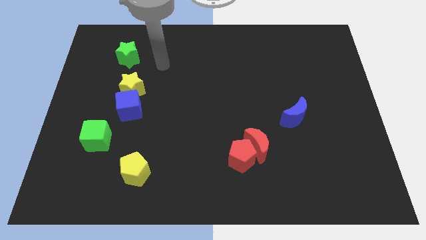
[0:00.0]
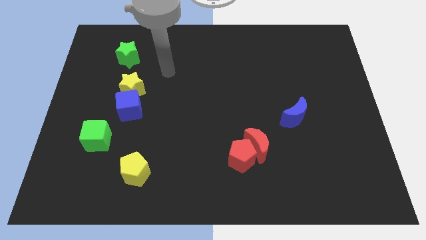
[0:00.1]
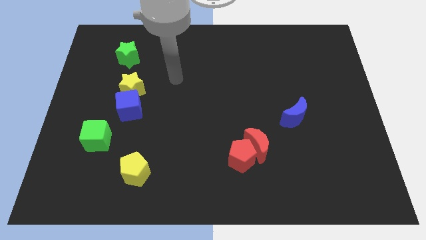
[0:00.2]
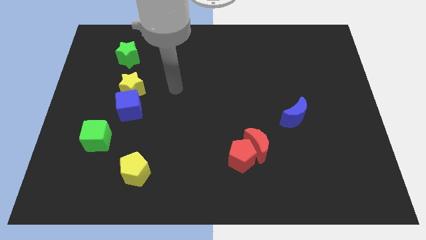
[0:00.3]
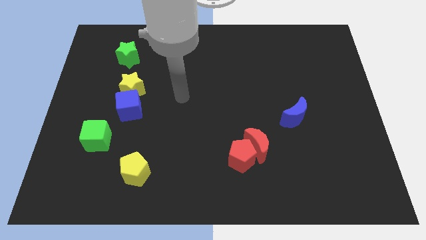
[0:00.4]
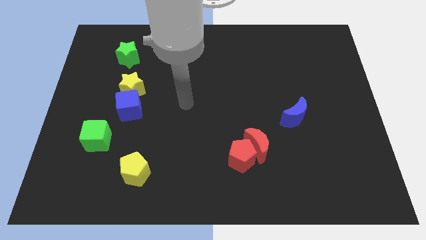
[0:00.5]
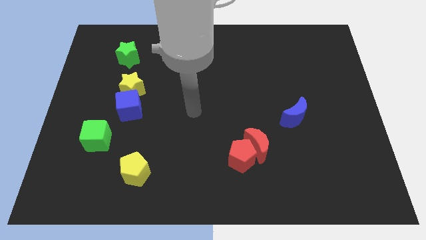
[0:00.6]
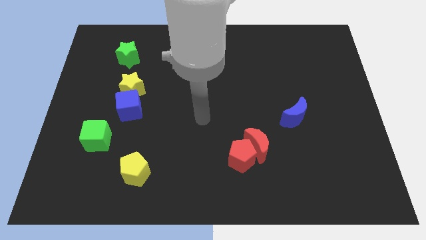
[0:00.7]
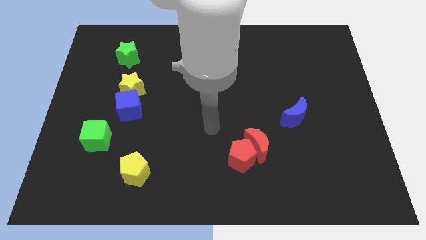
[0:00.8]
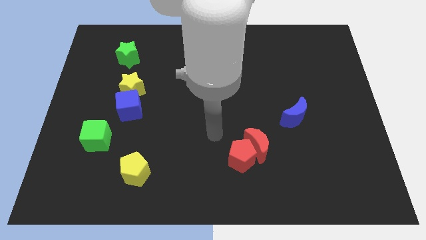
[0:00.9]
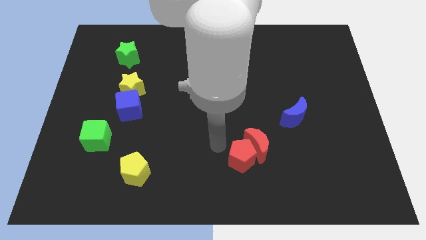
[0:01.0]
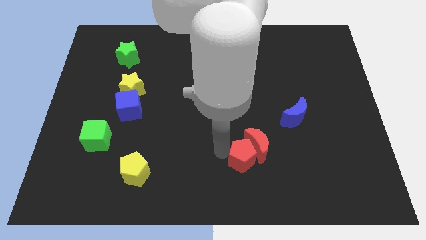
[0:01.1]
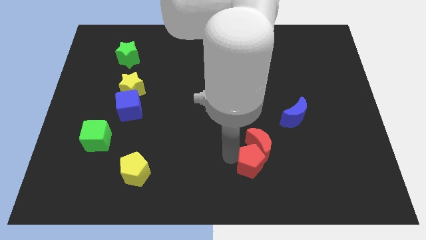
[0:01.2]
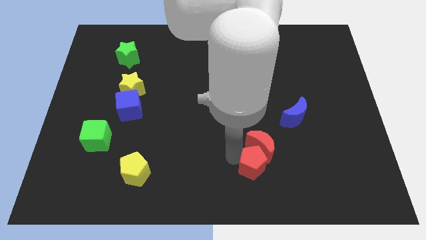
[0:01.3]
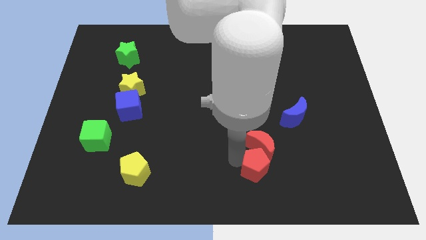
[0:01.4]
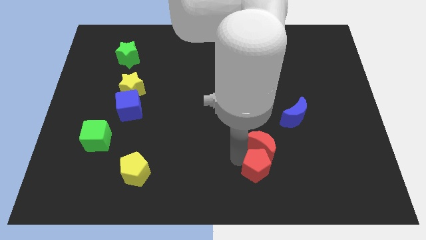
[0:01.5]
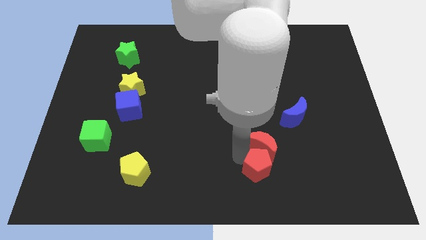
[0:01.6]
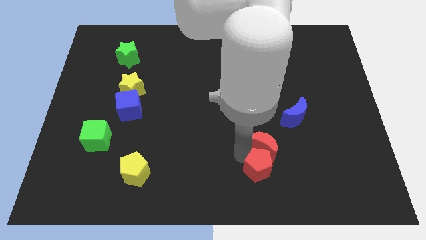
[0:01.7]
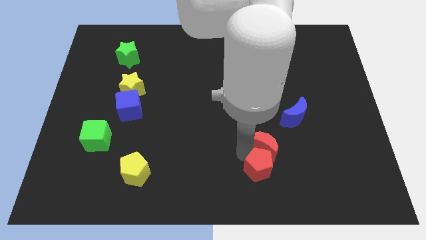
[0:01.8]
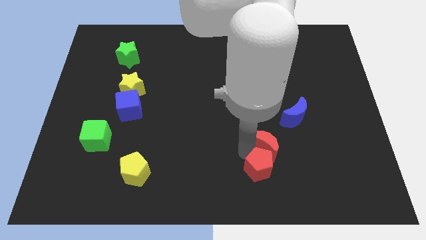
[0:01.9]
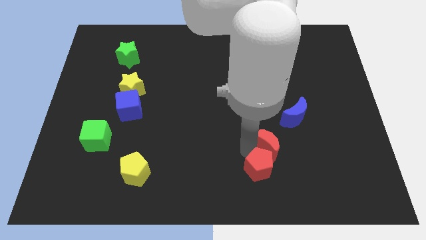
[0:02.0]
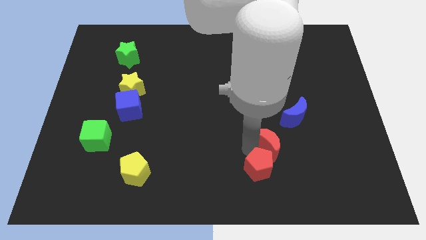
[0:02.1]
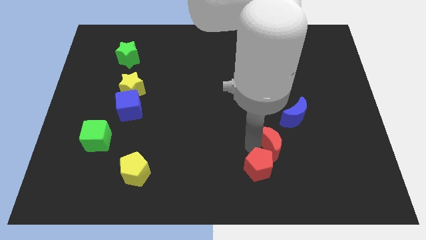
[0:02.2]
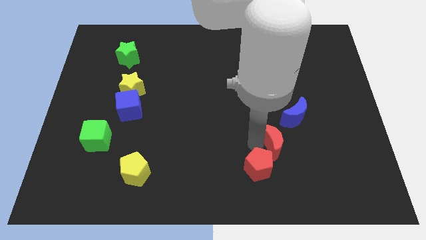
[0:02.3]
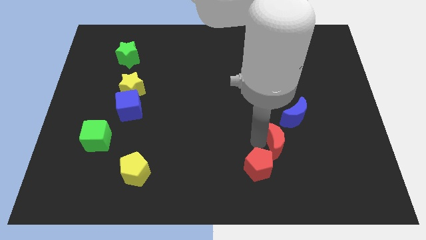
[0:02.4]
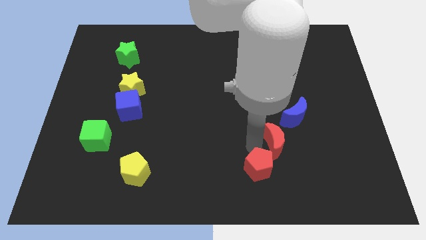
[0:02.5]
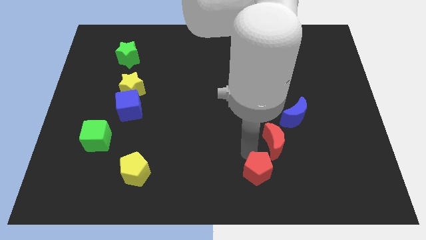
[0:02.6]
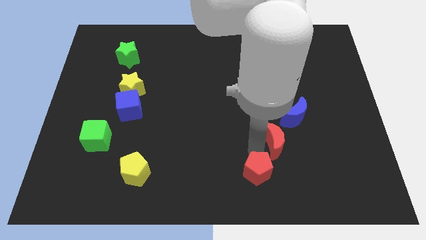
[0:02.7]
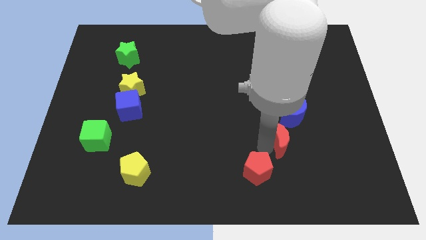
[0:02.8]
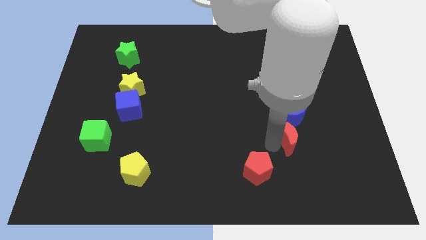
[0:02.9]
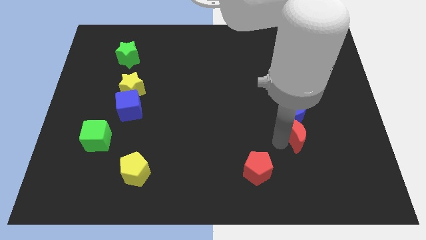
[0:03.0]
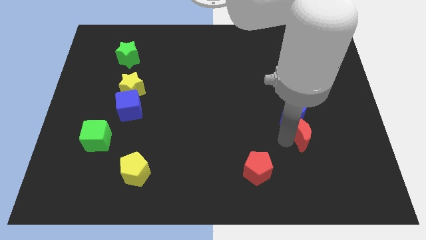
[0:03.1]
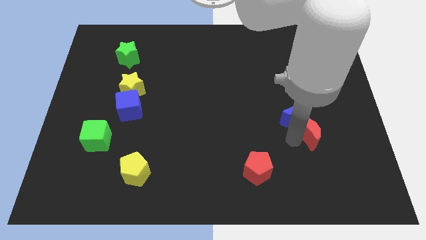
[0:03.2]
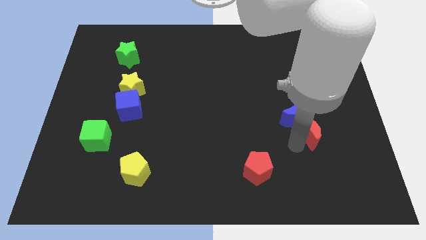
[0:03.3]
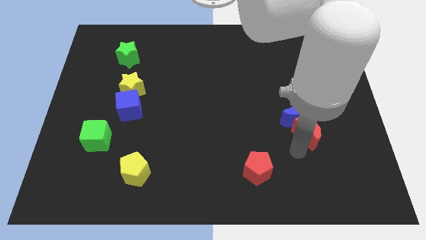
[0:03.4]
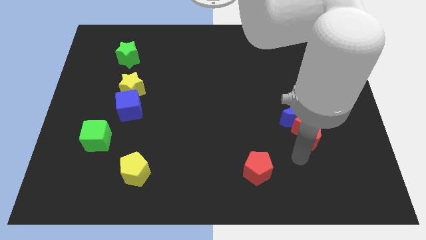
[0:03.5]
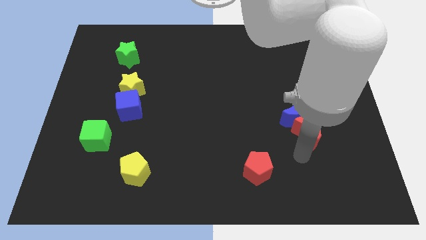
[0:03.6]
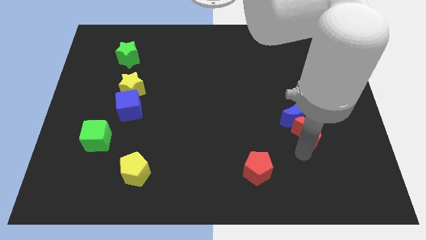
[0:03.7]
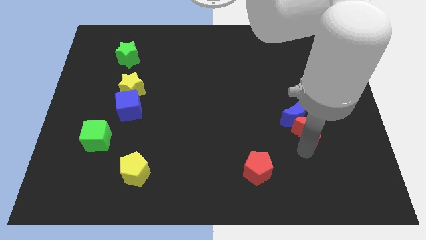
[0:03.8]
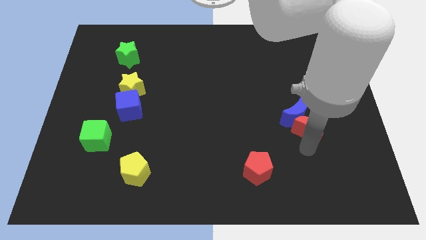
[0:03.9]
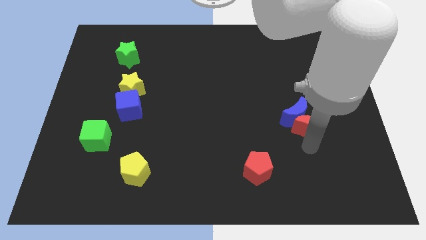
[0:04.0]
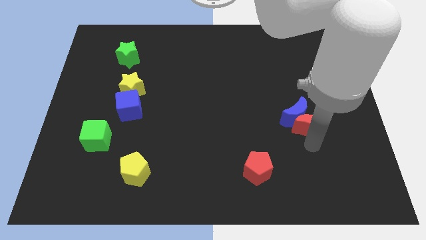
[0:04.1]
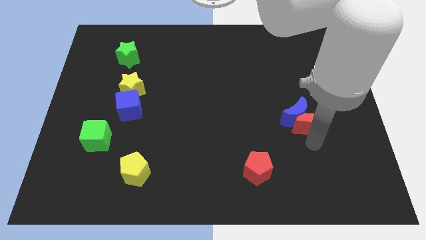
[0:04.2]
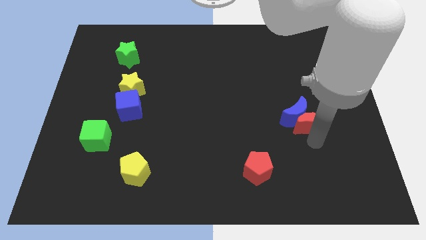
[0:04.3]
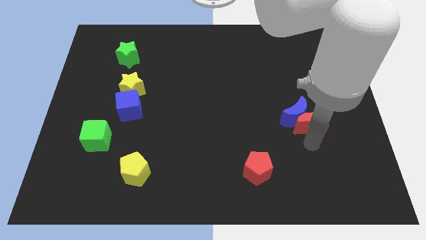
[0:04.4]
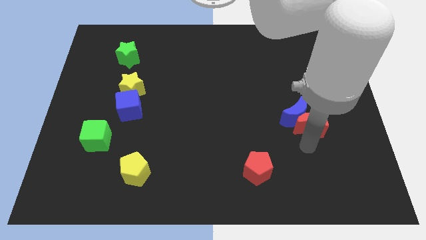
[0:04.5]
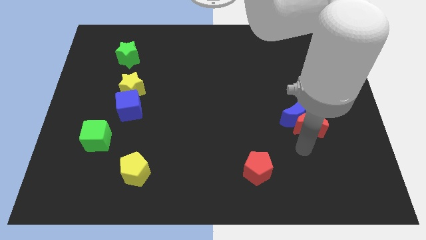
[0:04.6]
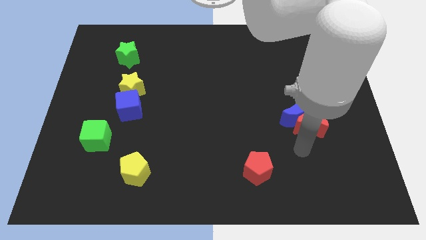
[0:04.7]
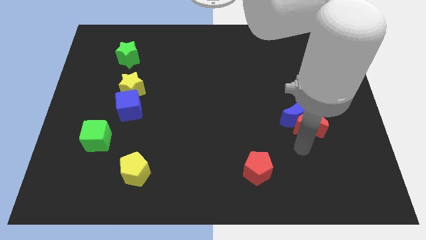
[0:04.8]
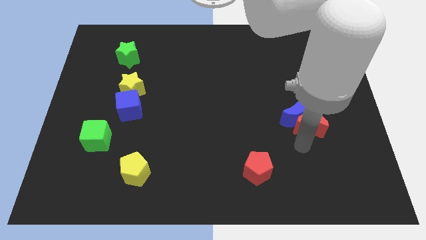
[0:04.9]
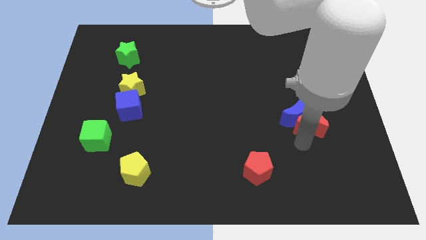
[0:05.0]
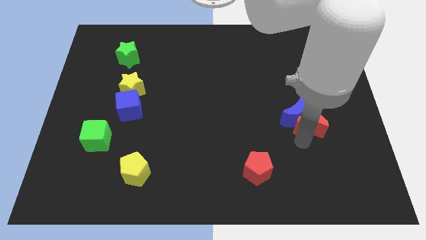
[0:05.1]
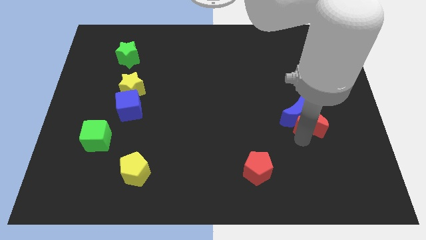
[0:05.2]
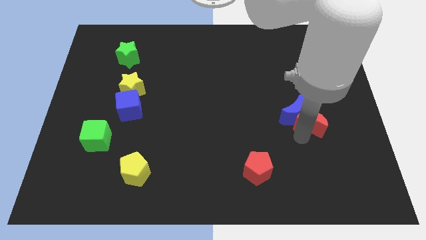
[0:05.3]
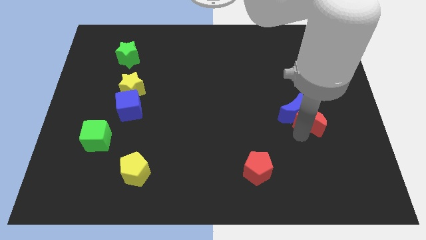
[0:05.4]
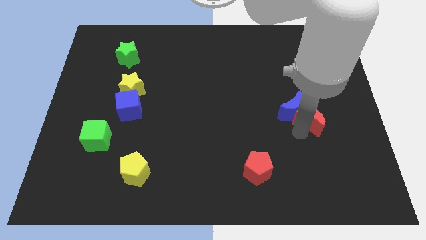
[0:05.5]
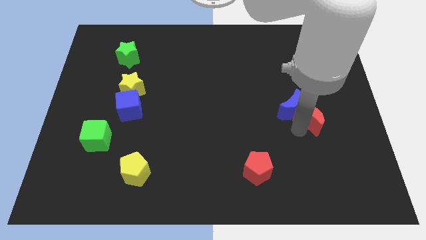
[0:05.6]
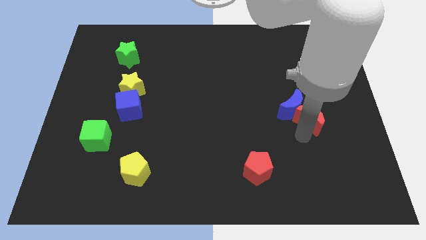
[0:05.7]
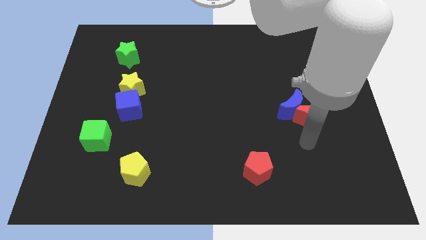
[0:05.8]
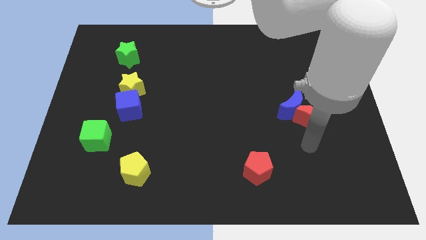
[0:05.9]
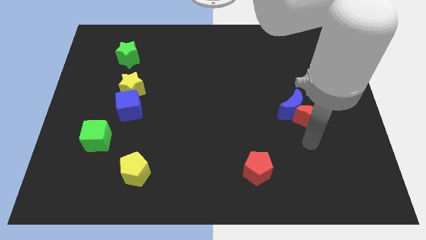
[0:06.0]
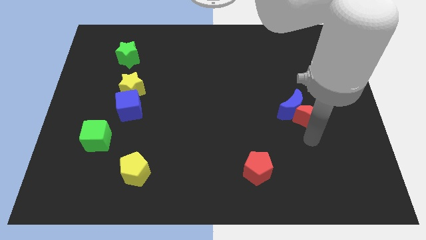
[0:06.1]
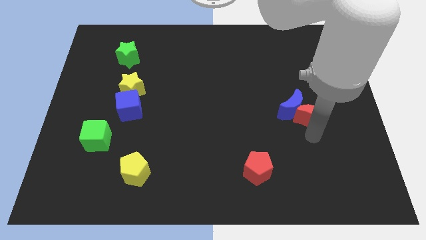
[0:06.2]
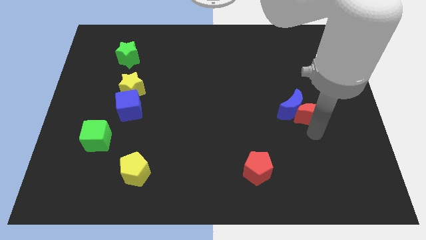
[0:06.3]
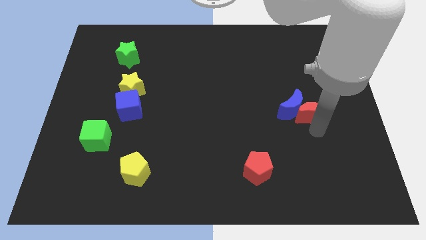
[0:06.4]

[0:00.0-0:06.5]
put the red moon diagonally up and to the right of the blue moon

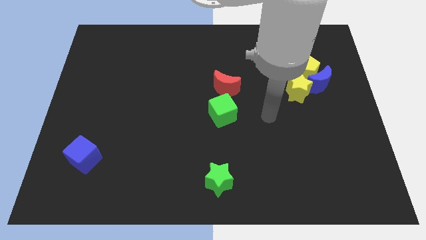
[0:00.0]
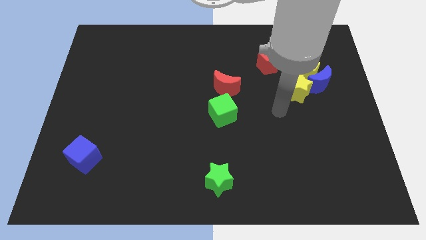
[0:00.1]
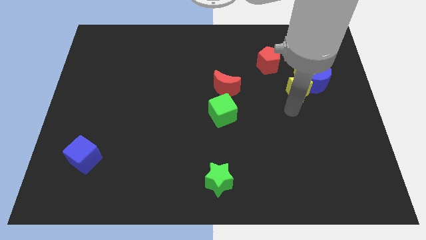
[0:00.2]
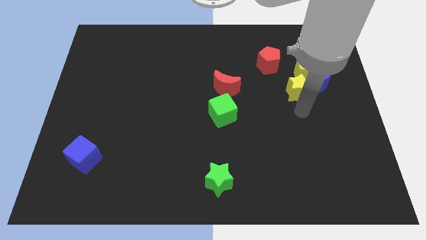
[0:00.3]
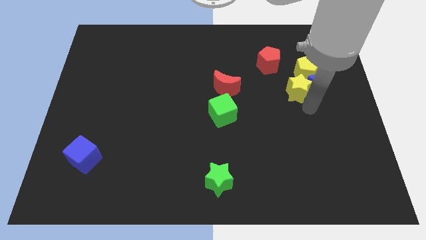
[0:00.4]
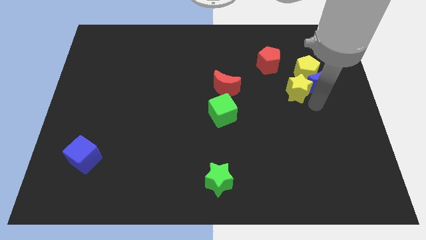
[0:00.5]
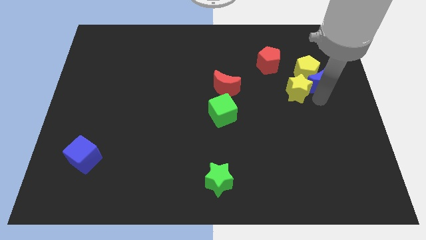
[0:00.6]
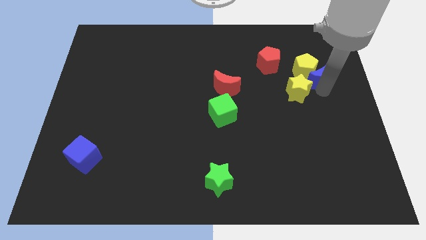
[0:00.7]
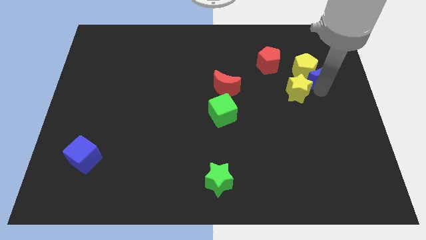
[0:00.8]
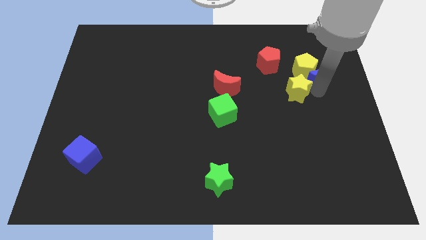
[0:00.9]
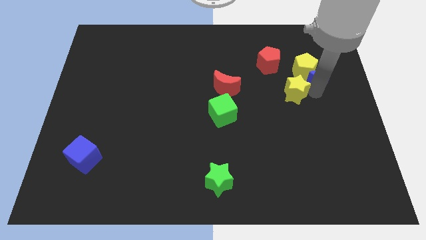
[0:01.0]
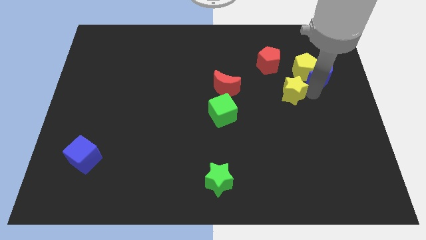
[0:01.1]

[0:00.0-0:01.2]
slide the yellow star to the bottom side of the red pentagon
